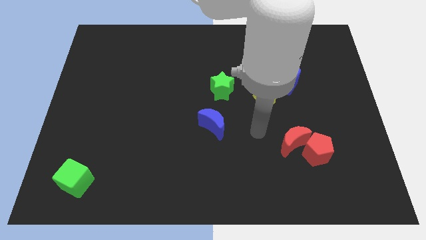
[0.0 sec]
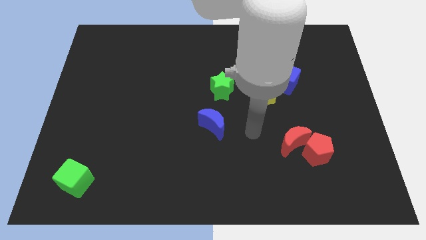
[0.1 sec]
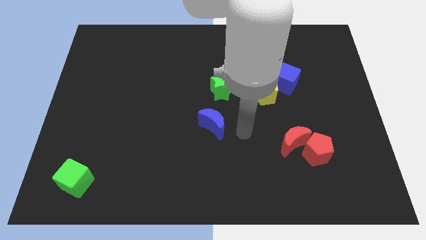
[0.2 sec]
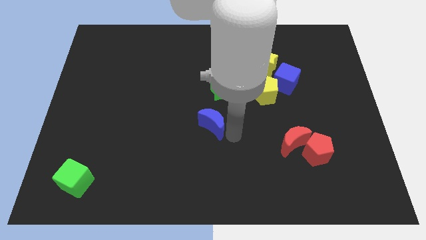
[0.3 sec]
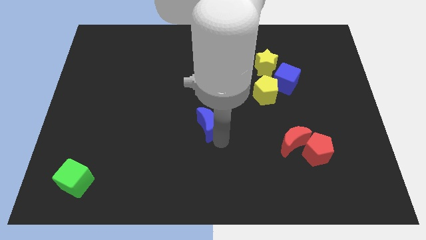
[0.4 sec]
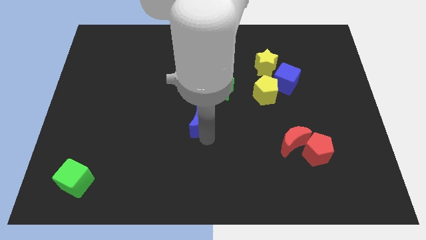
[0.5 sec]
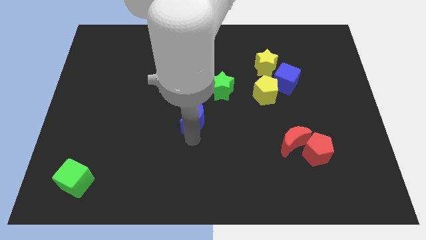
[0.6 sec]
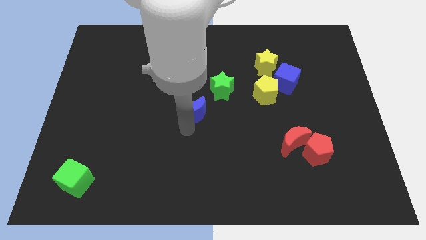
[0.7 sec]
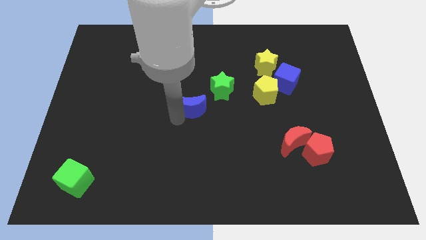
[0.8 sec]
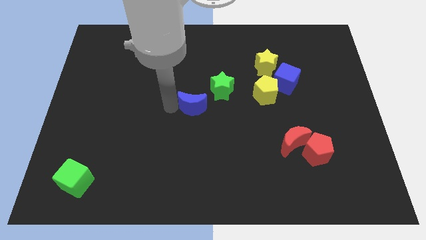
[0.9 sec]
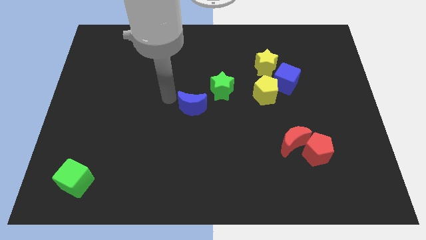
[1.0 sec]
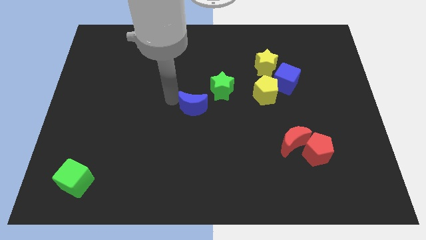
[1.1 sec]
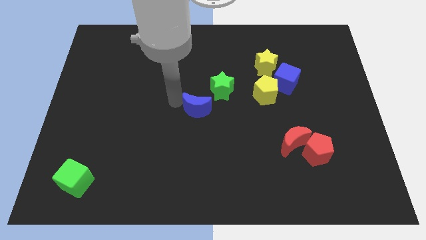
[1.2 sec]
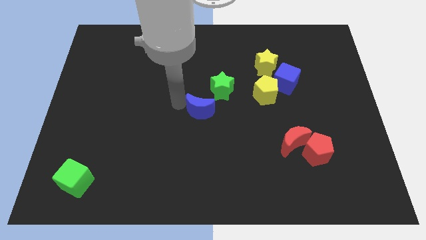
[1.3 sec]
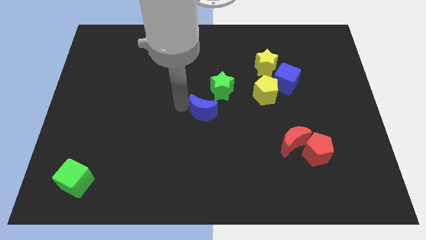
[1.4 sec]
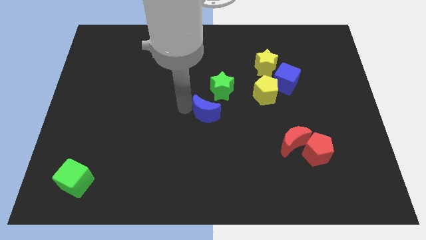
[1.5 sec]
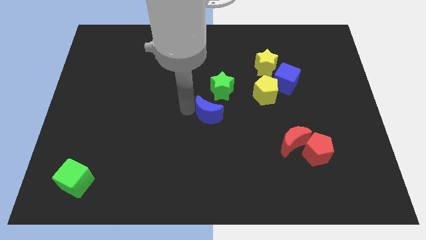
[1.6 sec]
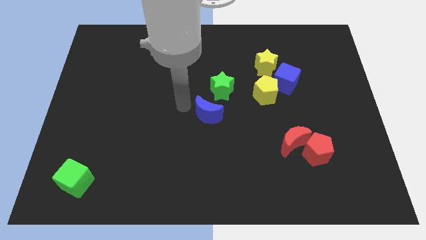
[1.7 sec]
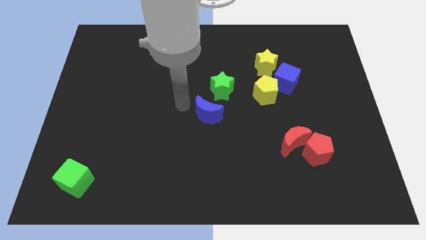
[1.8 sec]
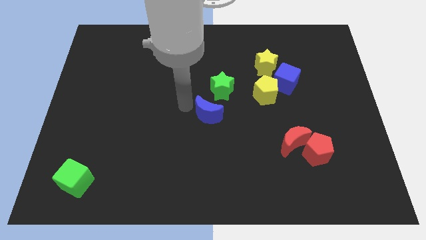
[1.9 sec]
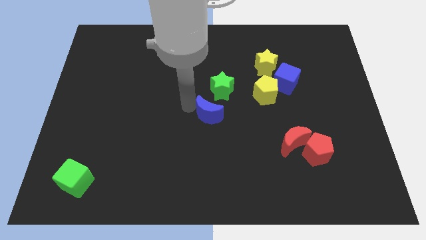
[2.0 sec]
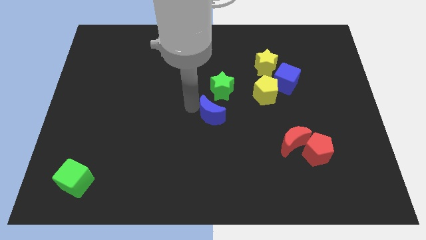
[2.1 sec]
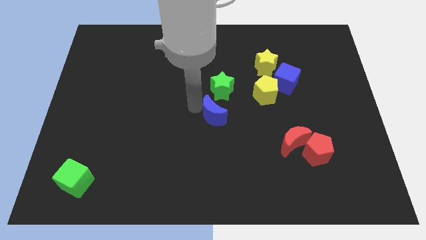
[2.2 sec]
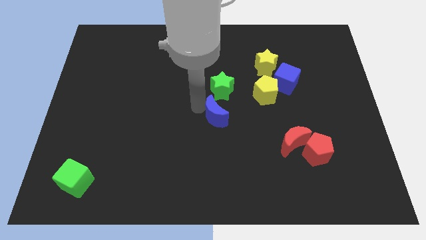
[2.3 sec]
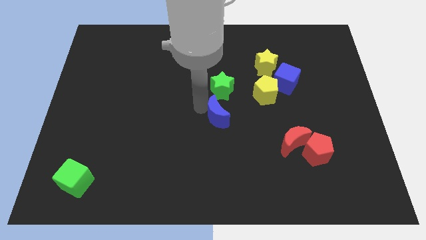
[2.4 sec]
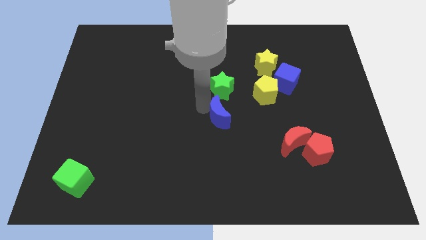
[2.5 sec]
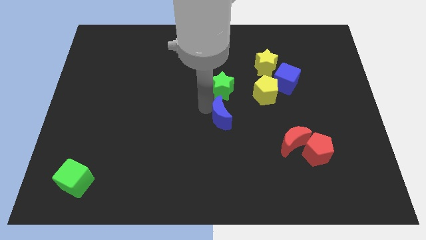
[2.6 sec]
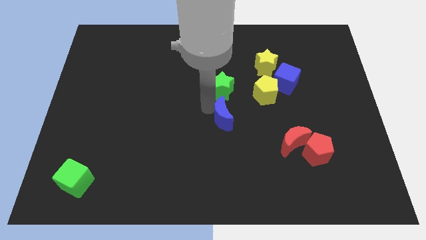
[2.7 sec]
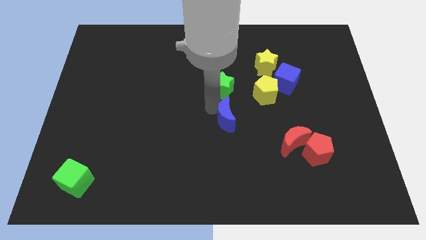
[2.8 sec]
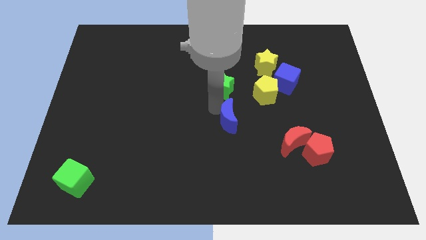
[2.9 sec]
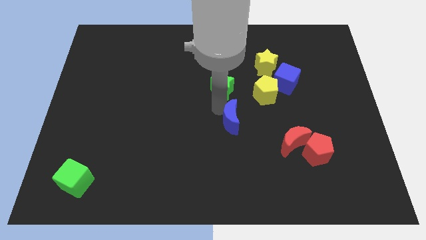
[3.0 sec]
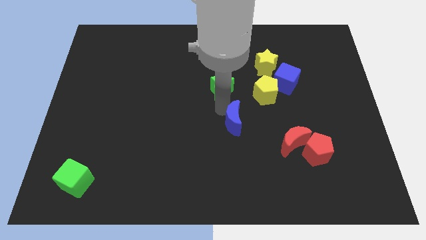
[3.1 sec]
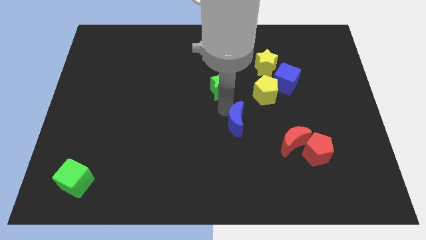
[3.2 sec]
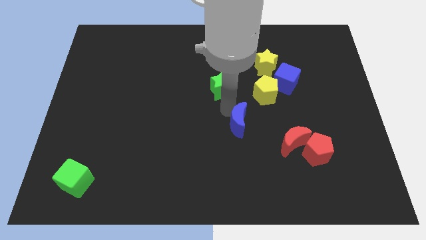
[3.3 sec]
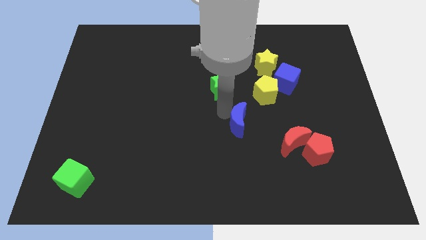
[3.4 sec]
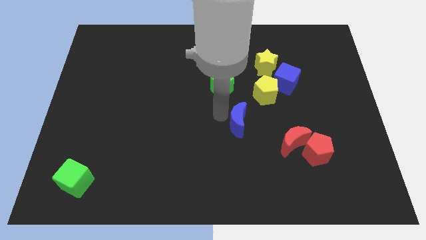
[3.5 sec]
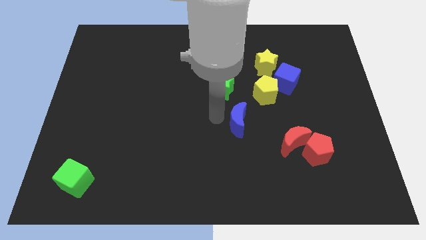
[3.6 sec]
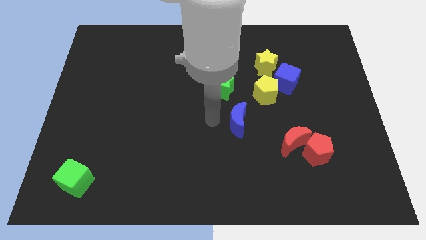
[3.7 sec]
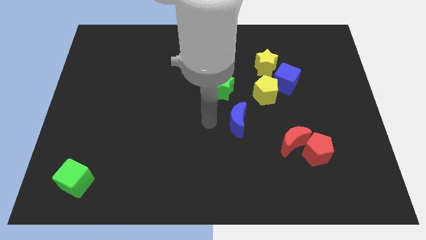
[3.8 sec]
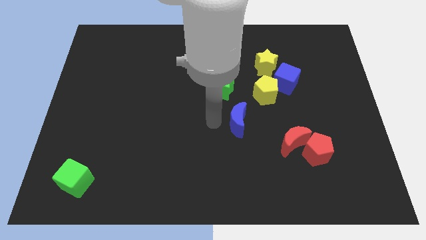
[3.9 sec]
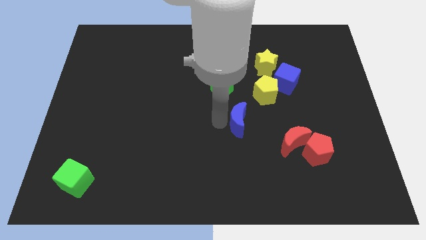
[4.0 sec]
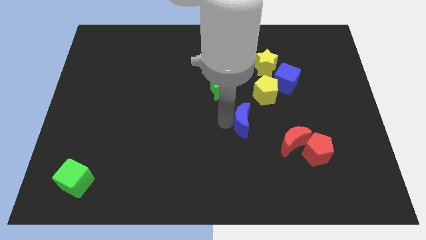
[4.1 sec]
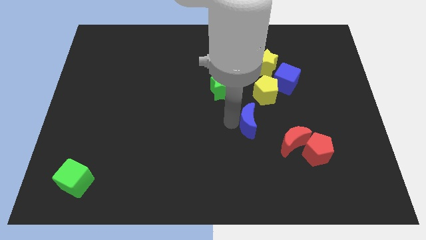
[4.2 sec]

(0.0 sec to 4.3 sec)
slide the blue moon a little to the right

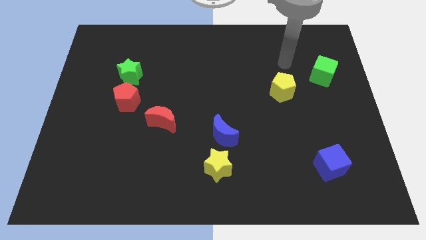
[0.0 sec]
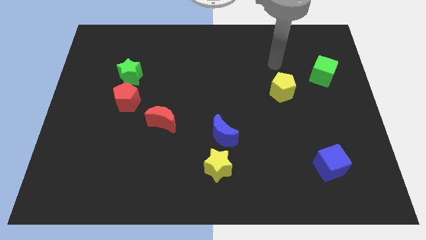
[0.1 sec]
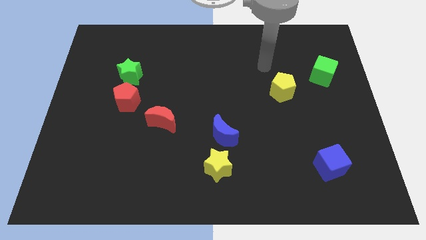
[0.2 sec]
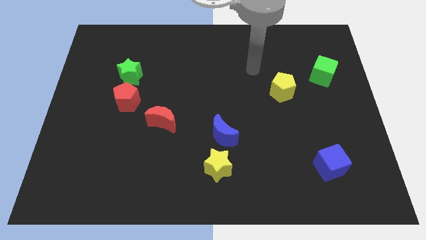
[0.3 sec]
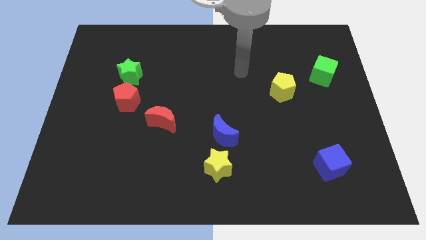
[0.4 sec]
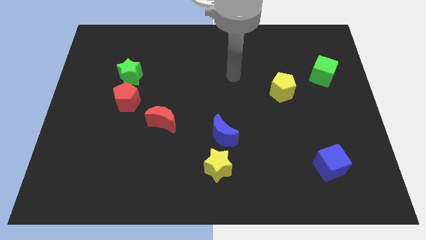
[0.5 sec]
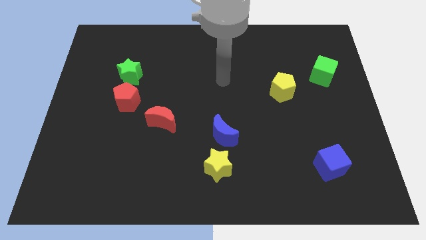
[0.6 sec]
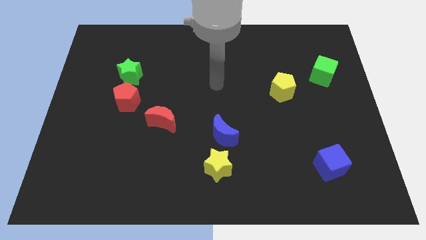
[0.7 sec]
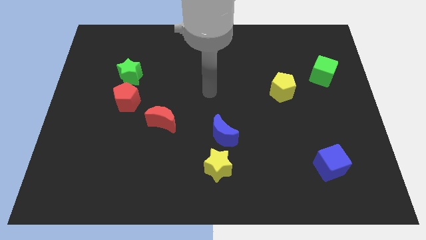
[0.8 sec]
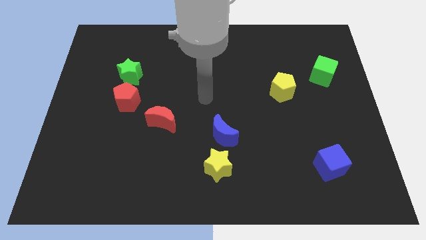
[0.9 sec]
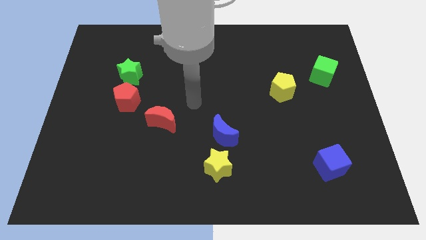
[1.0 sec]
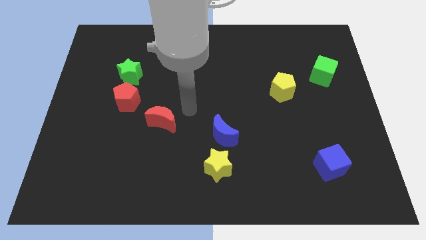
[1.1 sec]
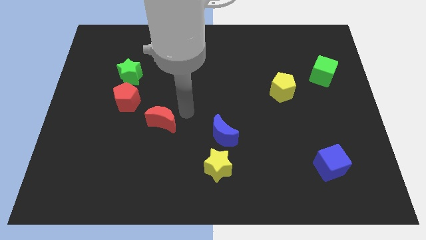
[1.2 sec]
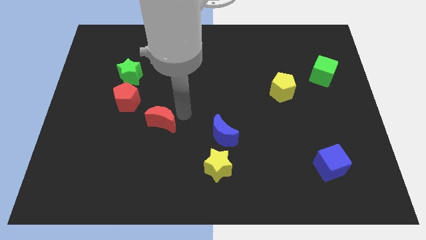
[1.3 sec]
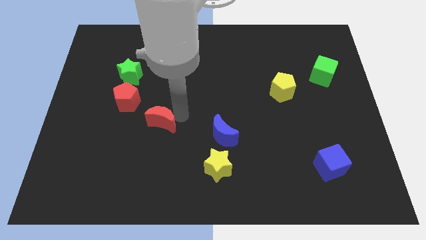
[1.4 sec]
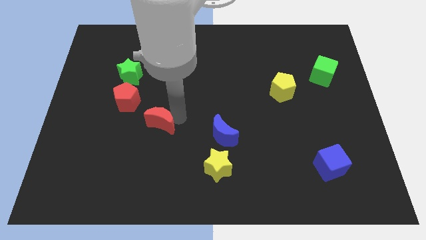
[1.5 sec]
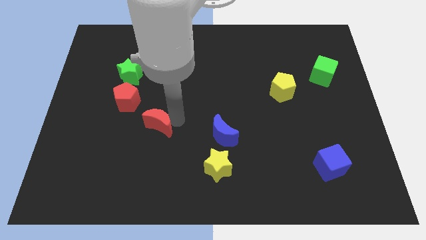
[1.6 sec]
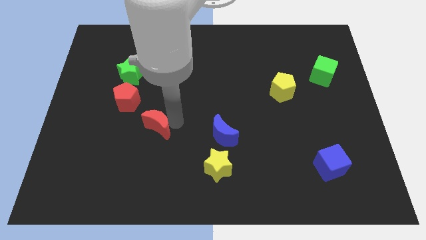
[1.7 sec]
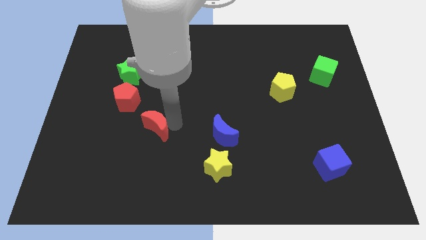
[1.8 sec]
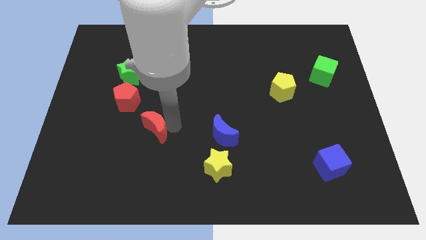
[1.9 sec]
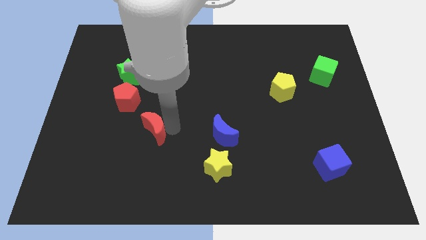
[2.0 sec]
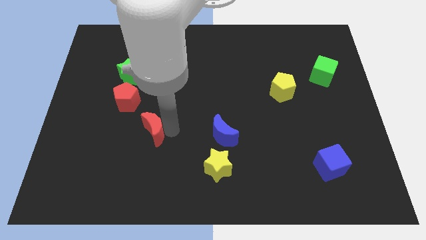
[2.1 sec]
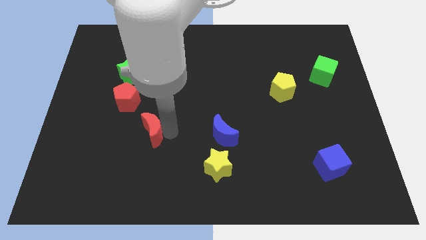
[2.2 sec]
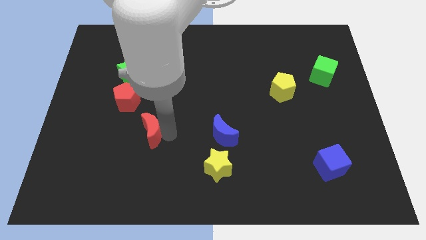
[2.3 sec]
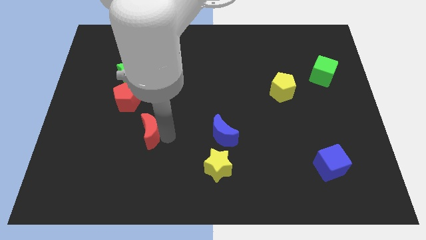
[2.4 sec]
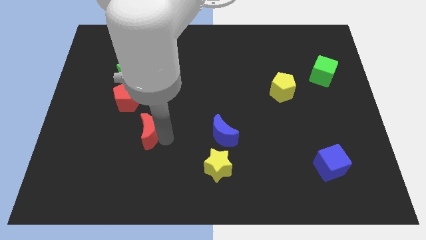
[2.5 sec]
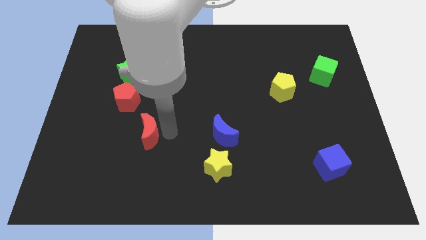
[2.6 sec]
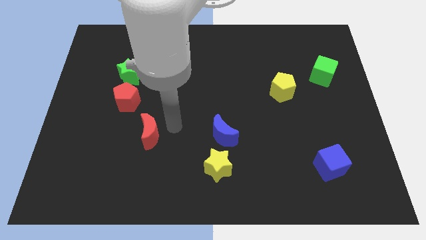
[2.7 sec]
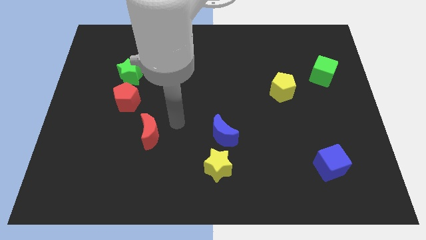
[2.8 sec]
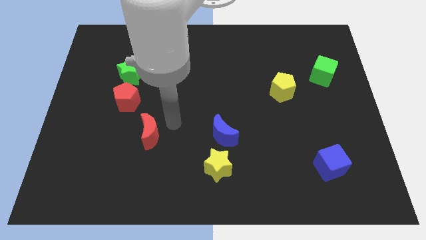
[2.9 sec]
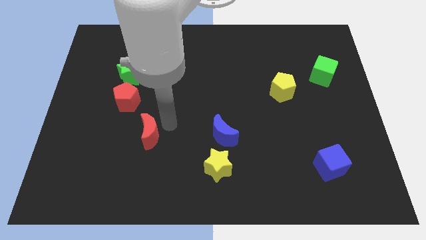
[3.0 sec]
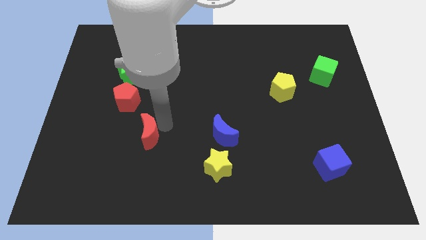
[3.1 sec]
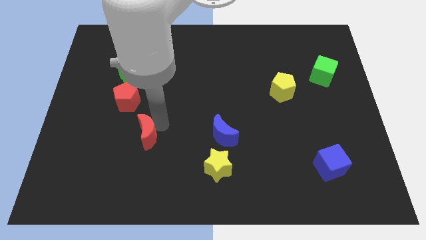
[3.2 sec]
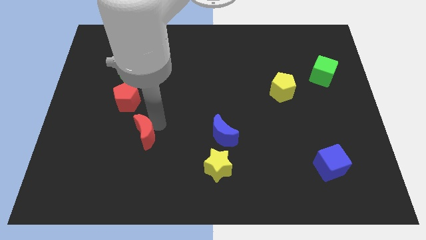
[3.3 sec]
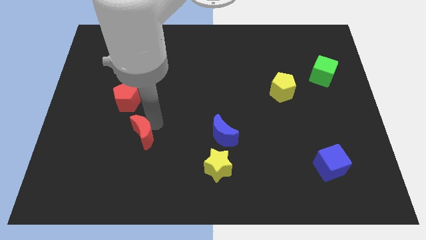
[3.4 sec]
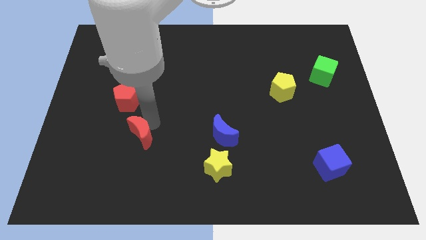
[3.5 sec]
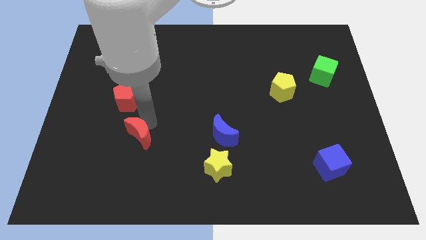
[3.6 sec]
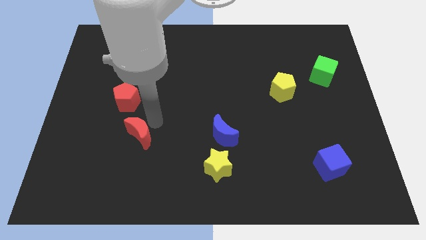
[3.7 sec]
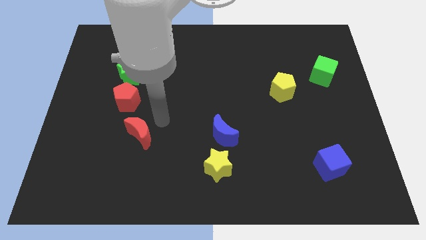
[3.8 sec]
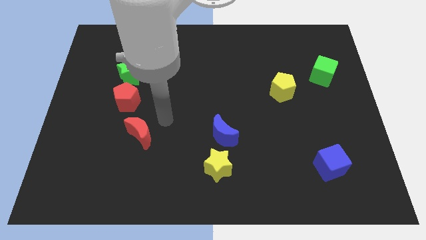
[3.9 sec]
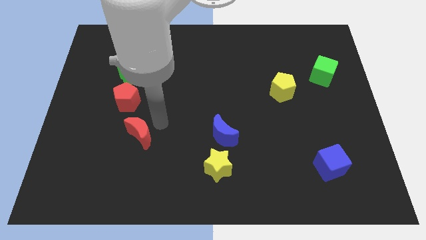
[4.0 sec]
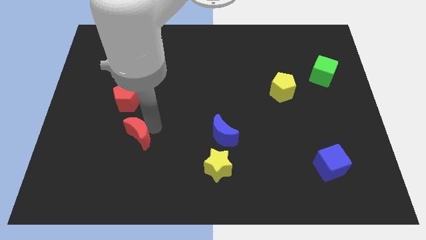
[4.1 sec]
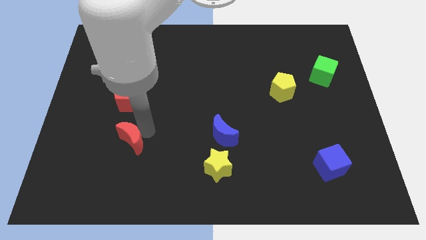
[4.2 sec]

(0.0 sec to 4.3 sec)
slide the red moon down and then left a little bit

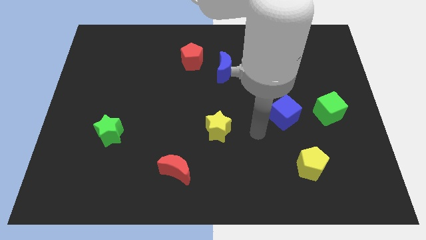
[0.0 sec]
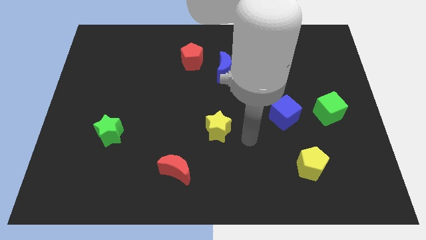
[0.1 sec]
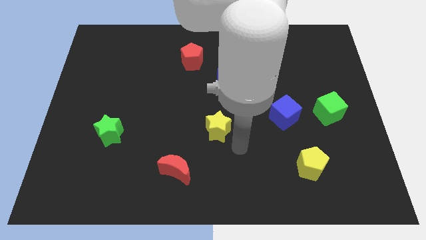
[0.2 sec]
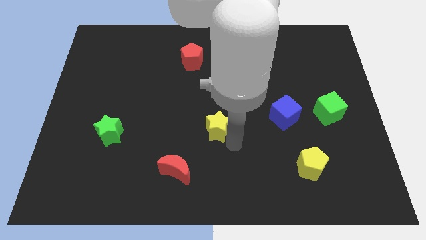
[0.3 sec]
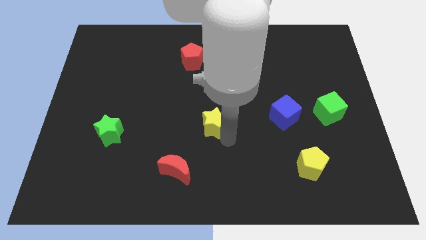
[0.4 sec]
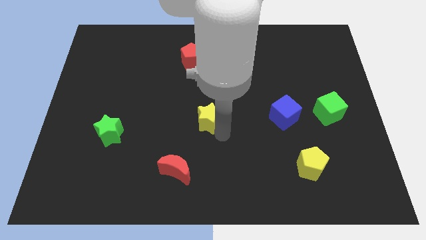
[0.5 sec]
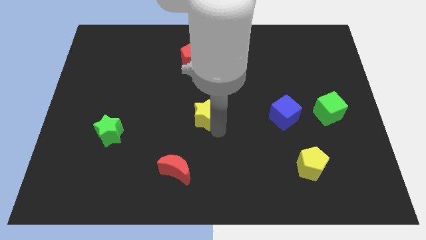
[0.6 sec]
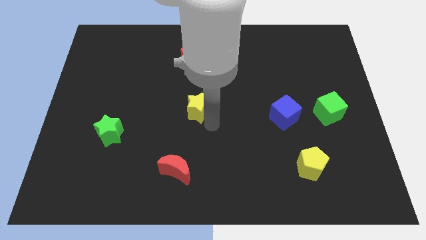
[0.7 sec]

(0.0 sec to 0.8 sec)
slide the yellow star a bit up and left
